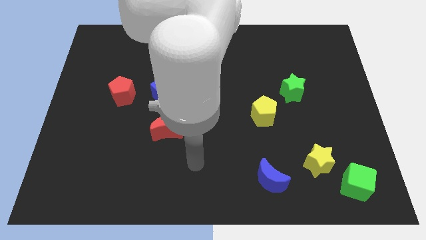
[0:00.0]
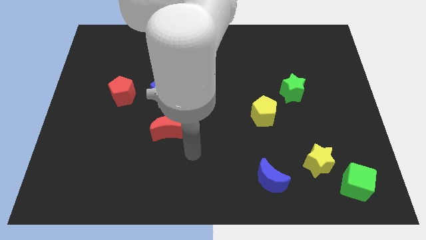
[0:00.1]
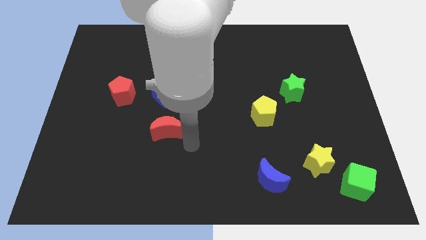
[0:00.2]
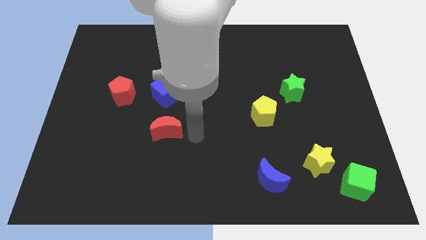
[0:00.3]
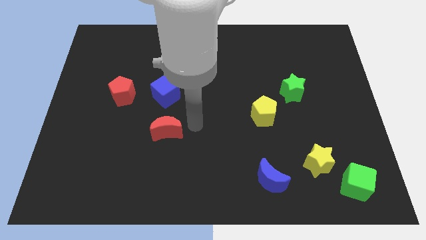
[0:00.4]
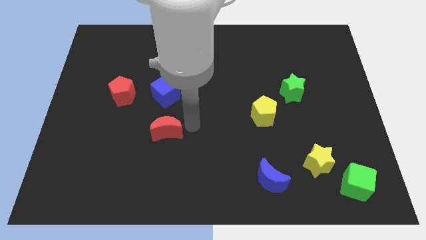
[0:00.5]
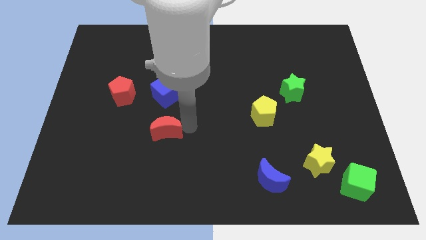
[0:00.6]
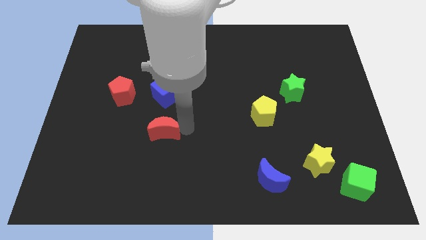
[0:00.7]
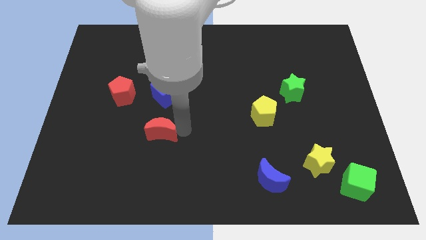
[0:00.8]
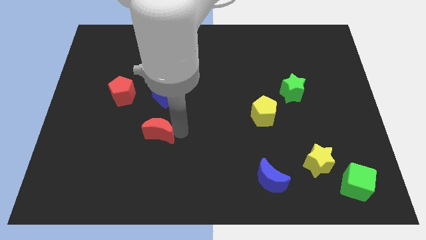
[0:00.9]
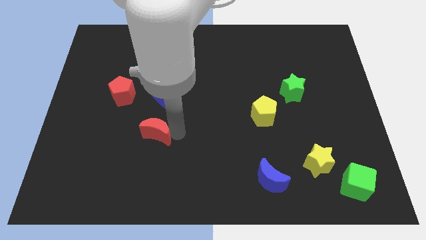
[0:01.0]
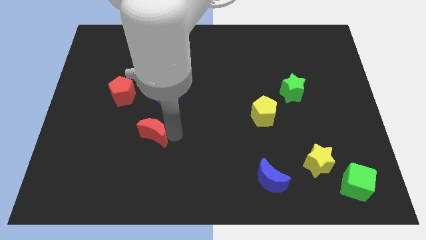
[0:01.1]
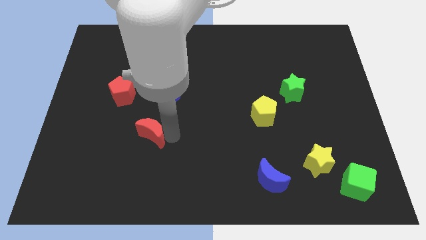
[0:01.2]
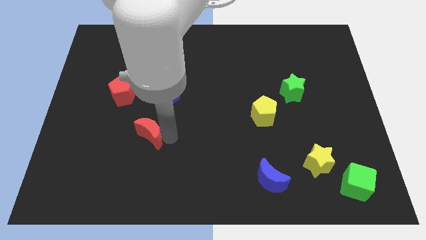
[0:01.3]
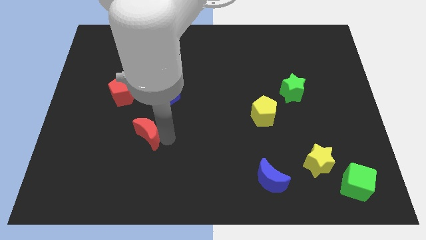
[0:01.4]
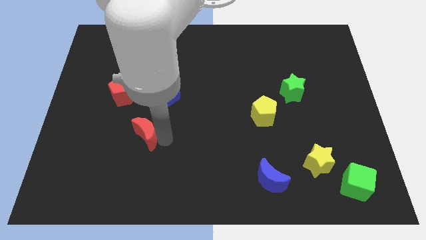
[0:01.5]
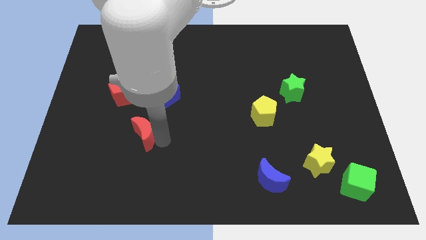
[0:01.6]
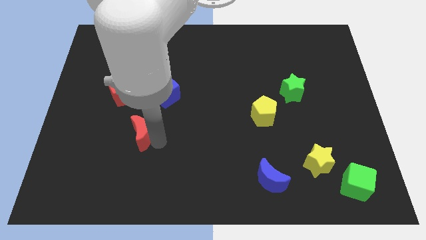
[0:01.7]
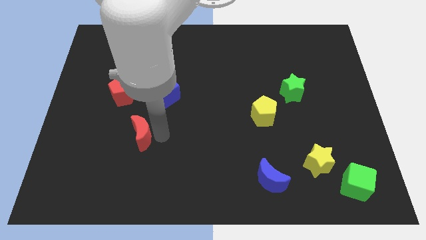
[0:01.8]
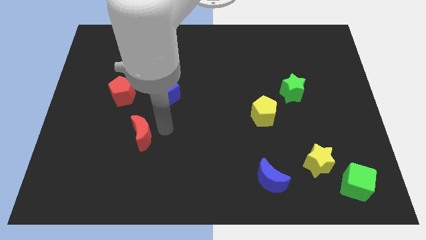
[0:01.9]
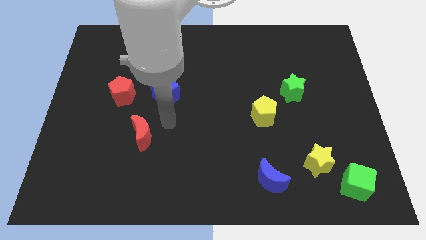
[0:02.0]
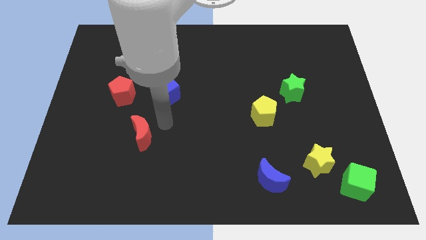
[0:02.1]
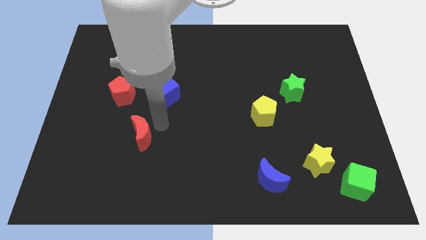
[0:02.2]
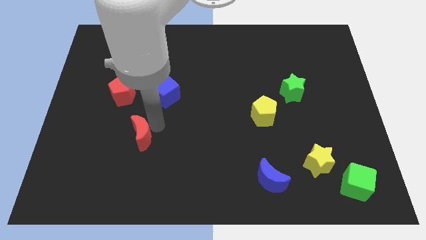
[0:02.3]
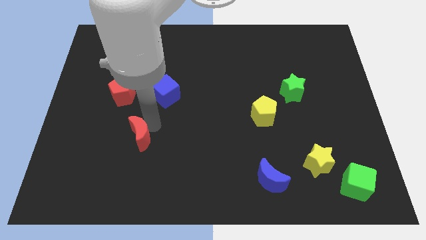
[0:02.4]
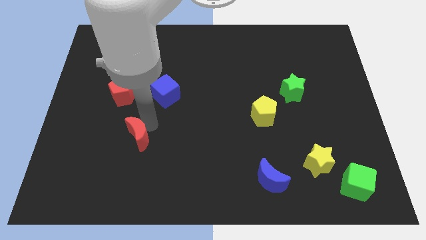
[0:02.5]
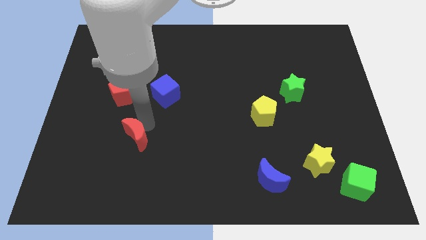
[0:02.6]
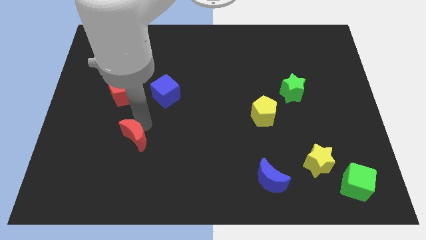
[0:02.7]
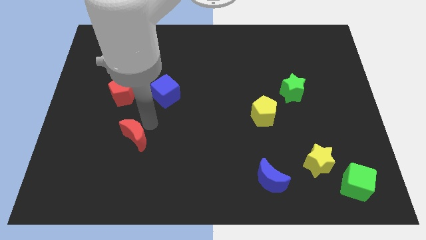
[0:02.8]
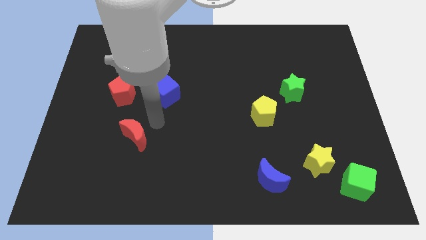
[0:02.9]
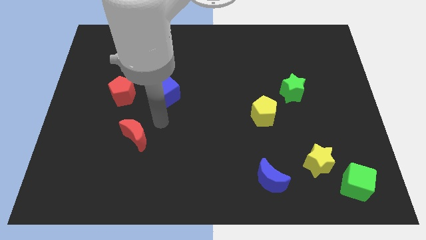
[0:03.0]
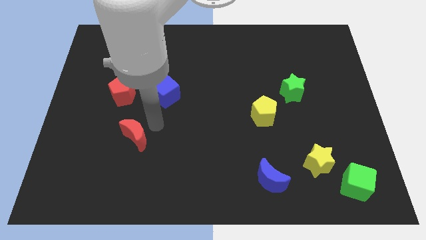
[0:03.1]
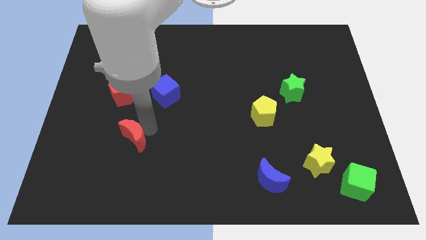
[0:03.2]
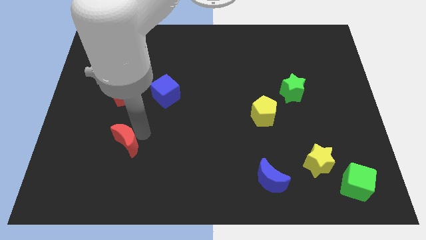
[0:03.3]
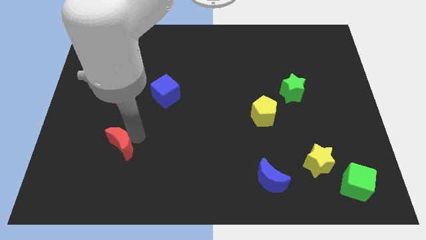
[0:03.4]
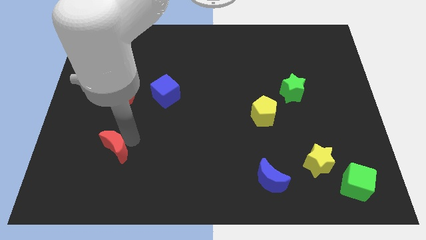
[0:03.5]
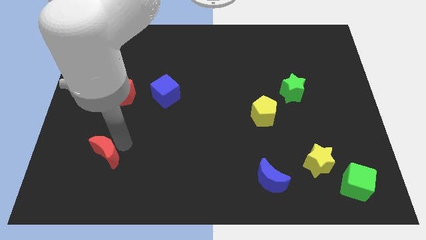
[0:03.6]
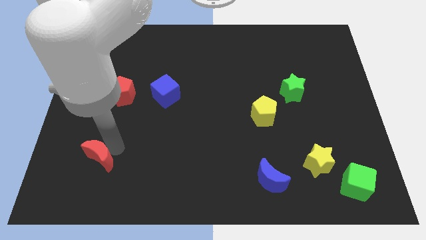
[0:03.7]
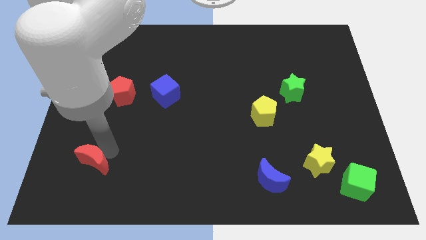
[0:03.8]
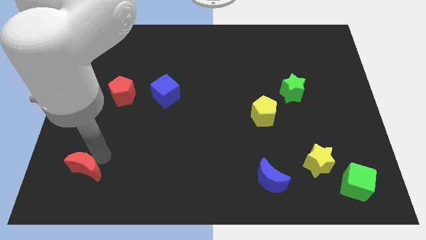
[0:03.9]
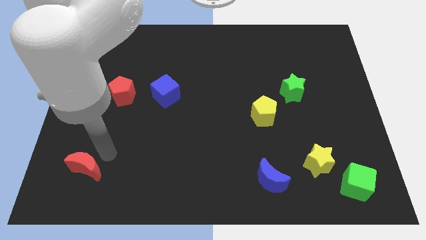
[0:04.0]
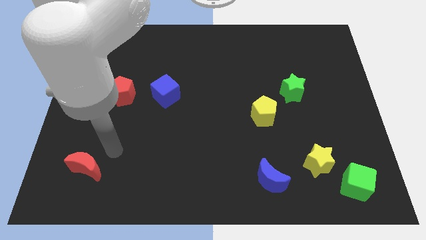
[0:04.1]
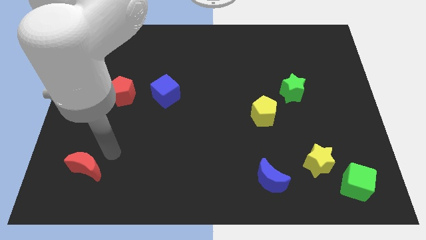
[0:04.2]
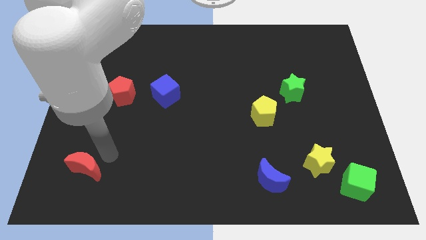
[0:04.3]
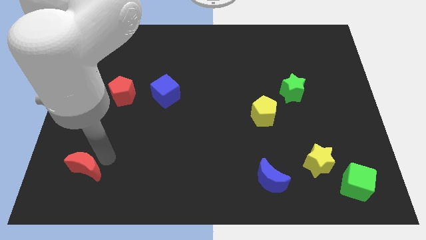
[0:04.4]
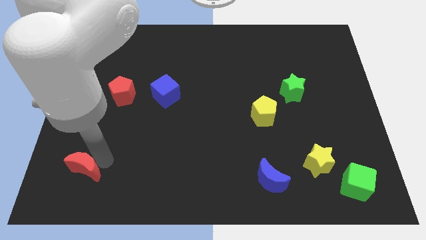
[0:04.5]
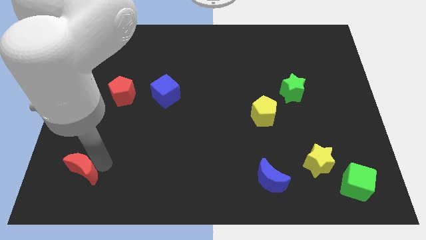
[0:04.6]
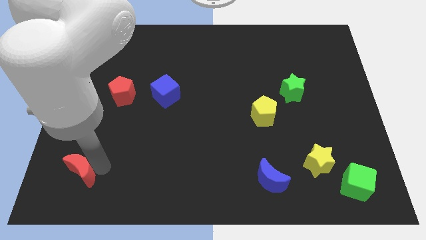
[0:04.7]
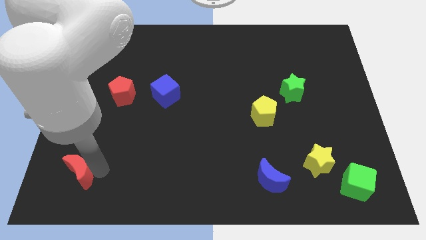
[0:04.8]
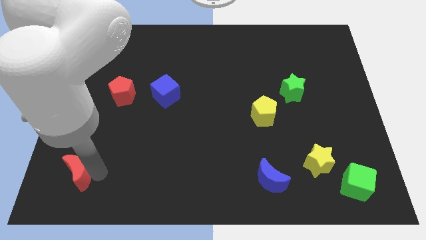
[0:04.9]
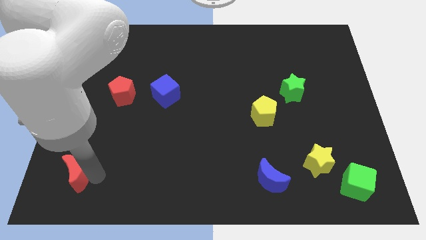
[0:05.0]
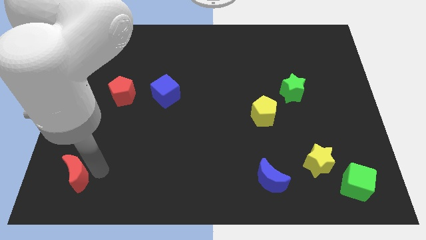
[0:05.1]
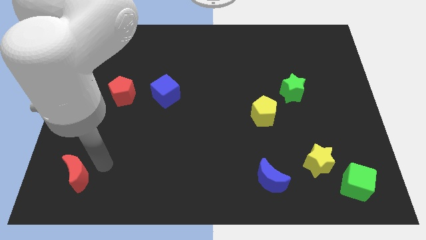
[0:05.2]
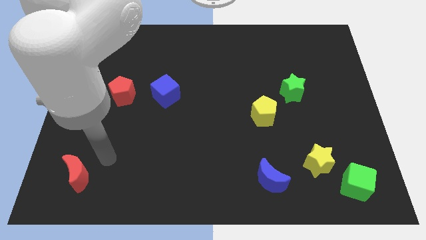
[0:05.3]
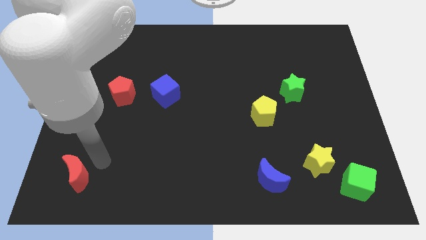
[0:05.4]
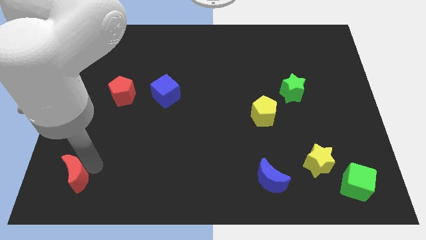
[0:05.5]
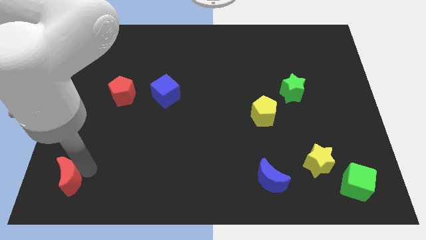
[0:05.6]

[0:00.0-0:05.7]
move the red moon to the bottom left corner
